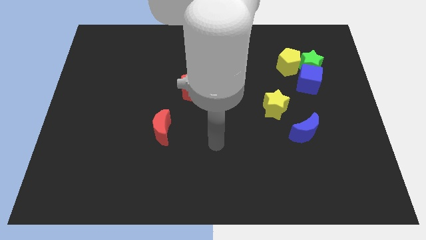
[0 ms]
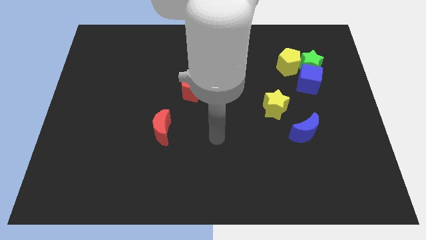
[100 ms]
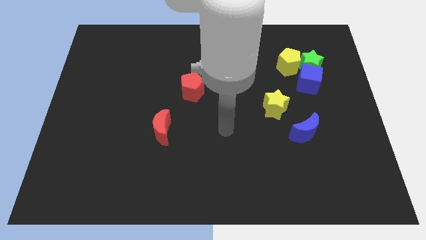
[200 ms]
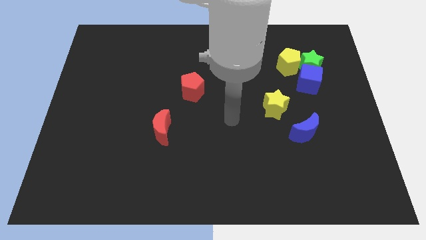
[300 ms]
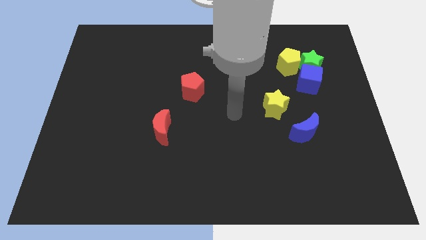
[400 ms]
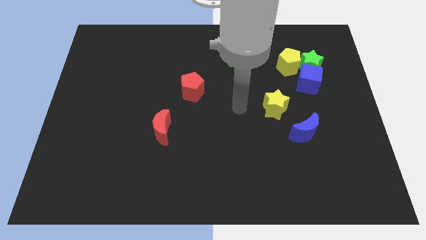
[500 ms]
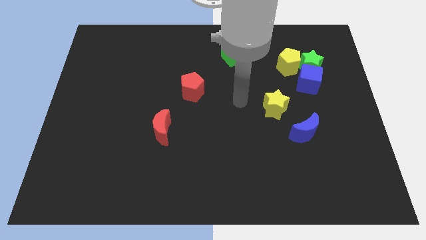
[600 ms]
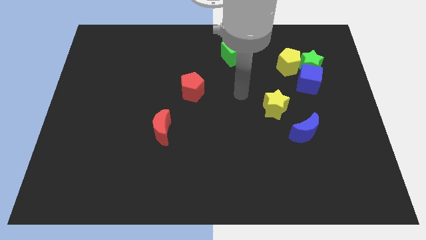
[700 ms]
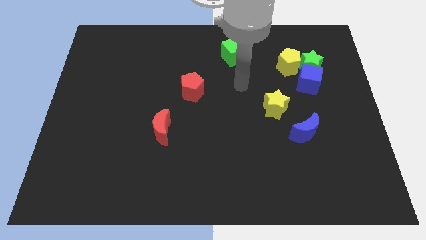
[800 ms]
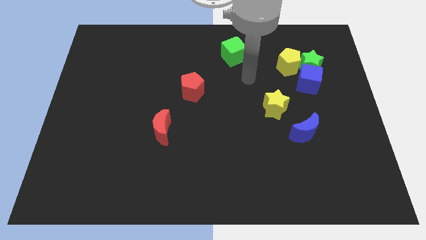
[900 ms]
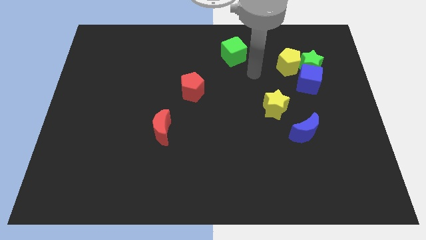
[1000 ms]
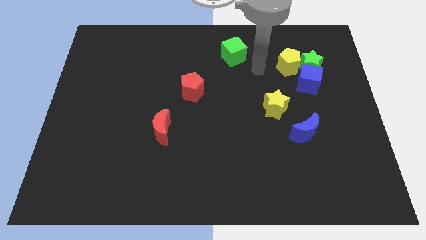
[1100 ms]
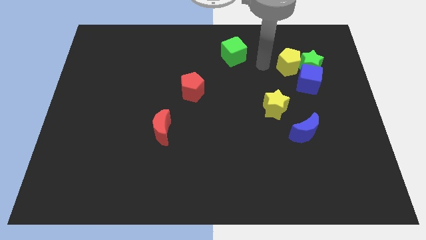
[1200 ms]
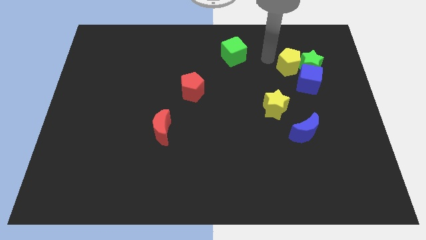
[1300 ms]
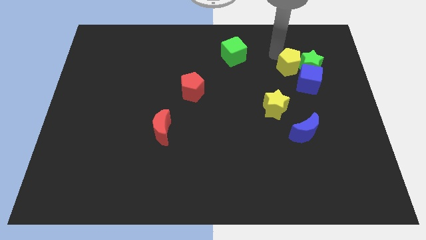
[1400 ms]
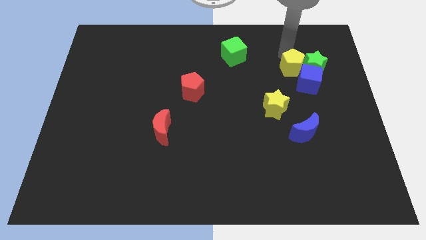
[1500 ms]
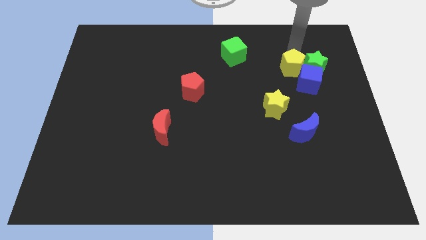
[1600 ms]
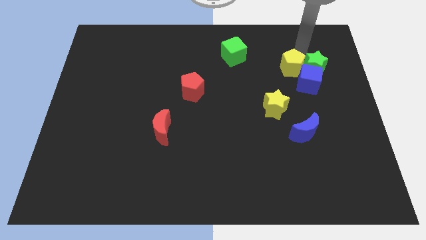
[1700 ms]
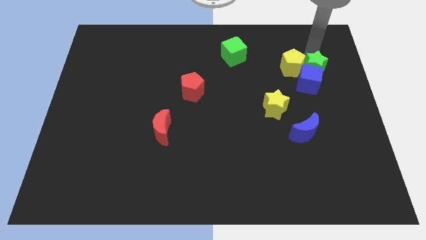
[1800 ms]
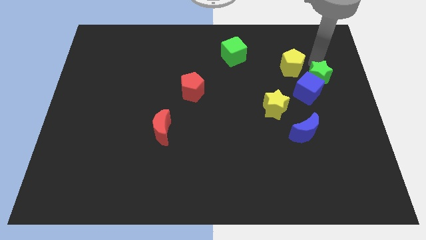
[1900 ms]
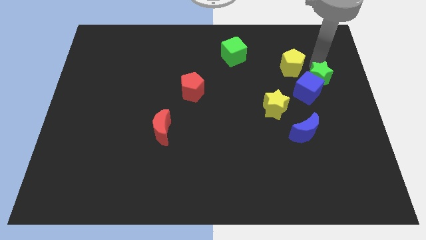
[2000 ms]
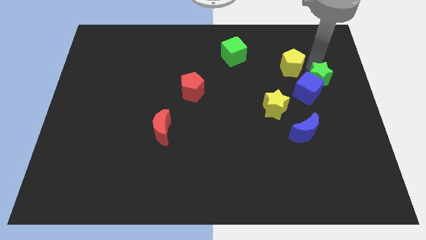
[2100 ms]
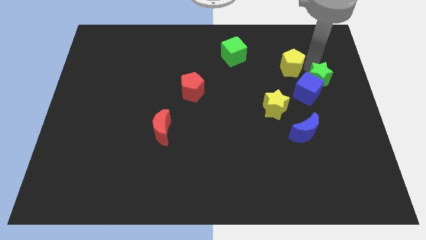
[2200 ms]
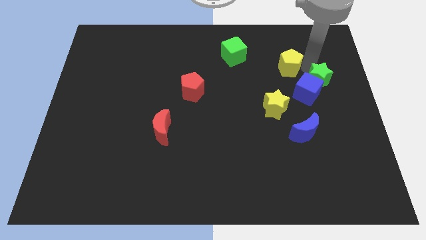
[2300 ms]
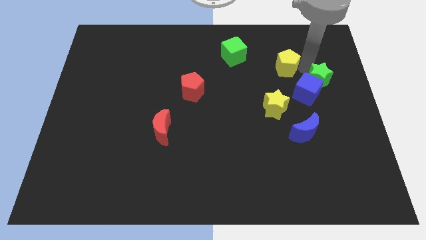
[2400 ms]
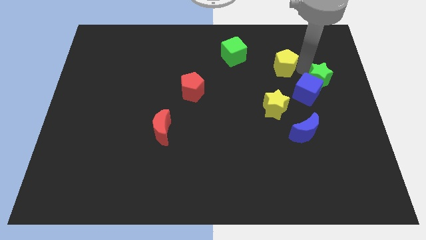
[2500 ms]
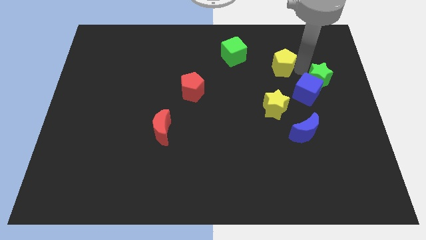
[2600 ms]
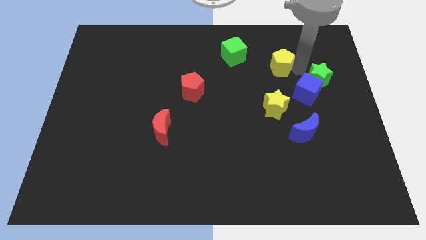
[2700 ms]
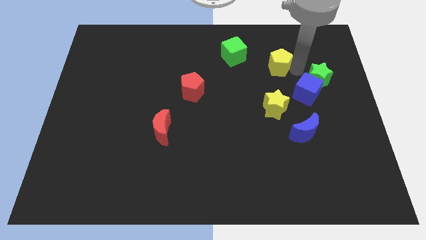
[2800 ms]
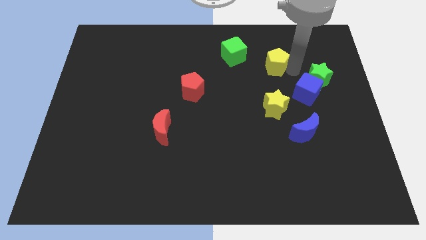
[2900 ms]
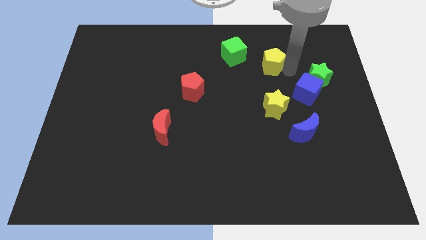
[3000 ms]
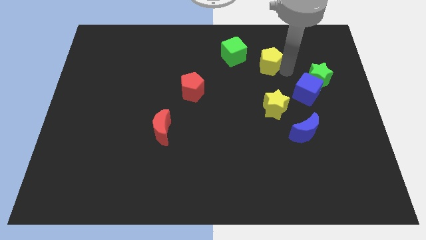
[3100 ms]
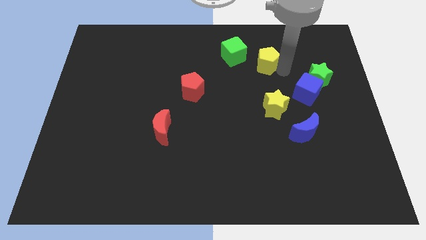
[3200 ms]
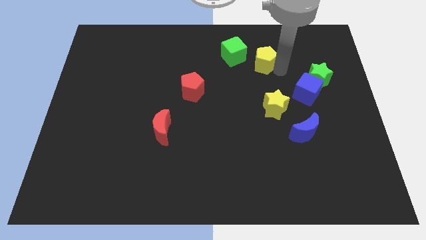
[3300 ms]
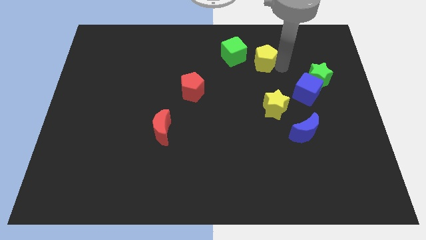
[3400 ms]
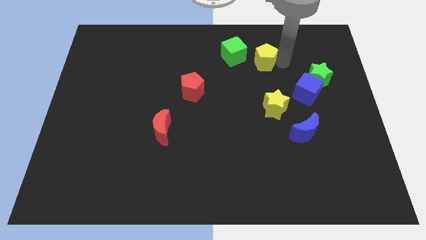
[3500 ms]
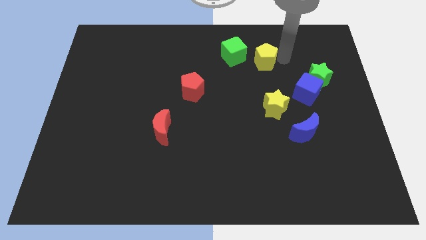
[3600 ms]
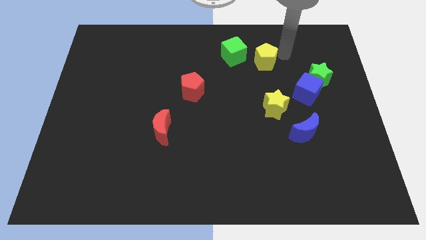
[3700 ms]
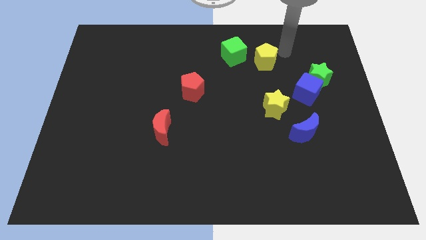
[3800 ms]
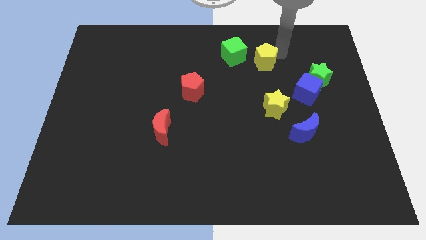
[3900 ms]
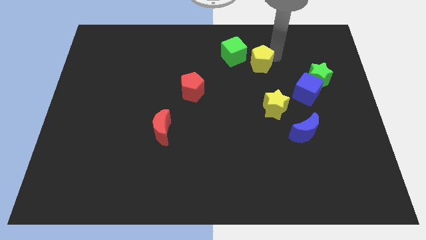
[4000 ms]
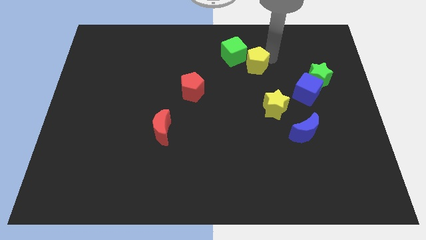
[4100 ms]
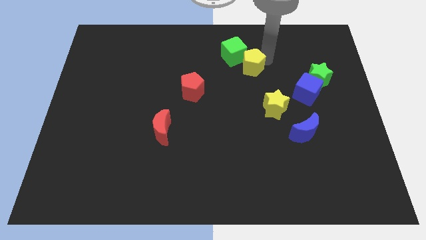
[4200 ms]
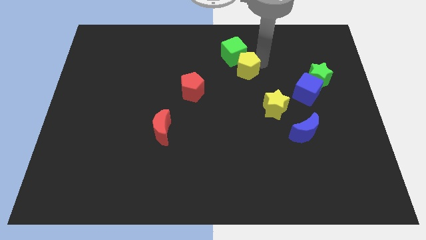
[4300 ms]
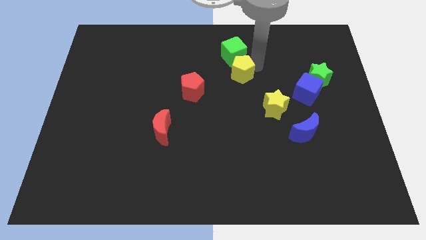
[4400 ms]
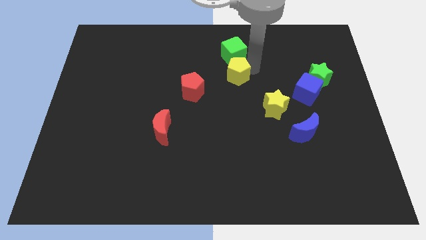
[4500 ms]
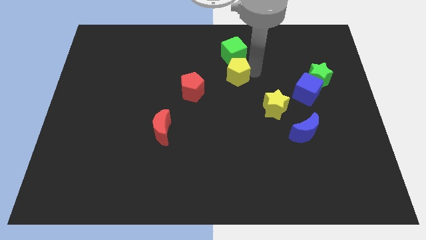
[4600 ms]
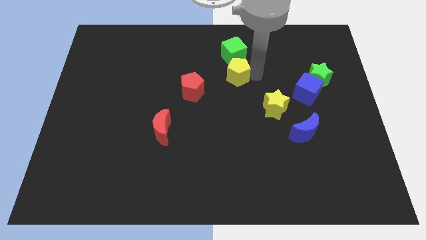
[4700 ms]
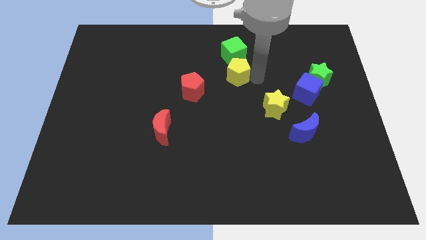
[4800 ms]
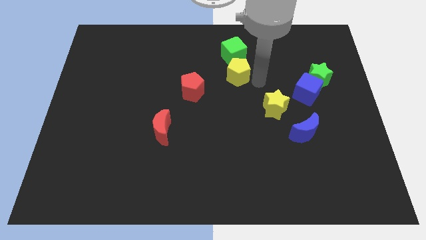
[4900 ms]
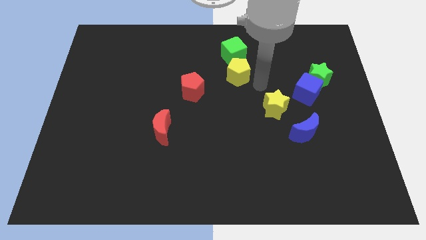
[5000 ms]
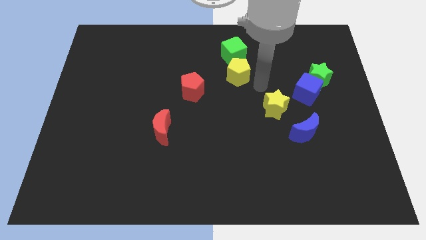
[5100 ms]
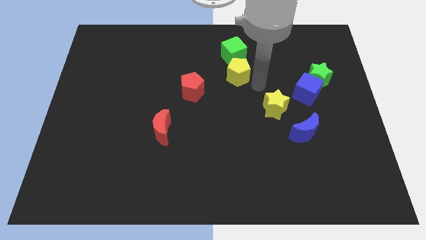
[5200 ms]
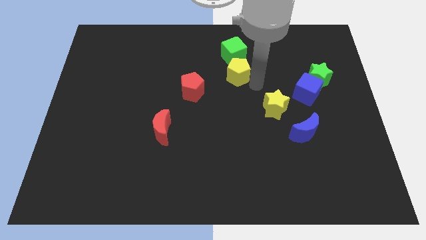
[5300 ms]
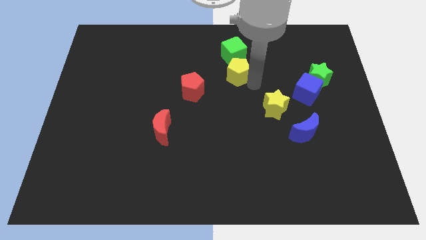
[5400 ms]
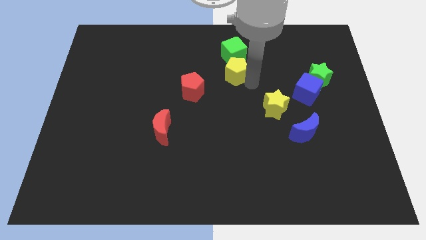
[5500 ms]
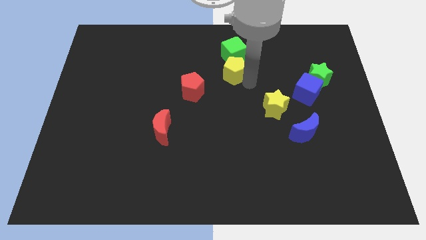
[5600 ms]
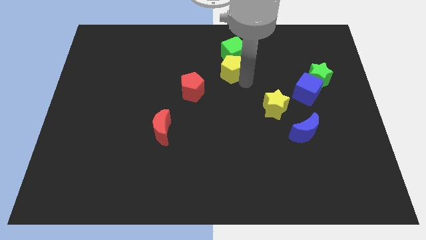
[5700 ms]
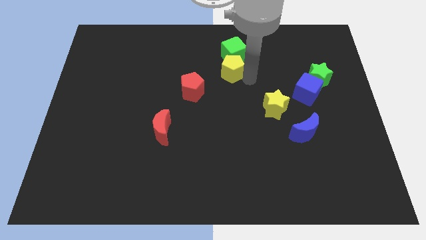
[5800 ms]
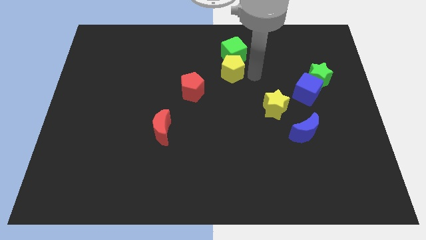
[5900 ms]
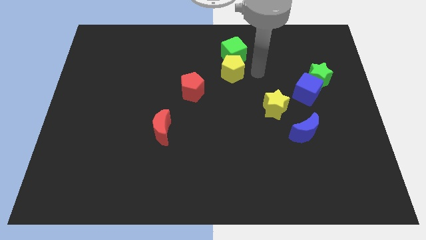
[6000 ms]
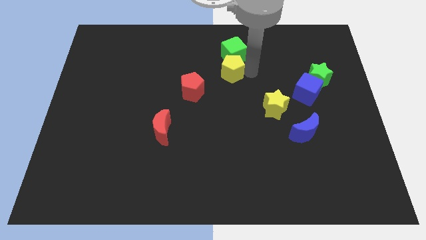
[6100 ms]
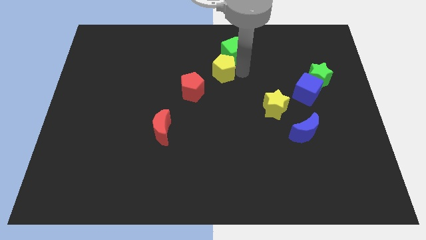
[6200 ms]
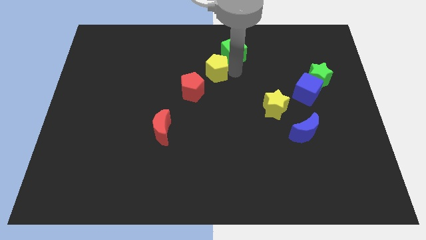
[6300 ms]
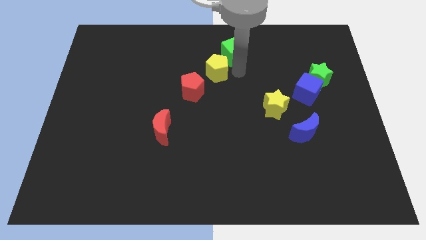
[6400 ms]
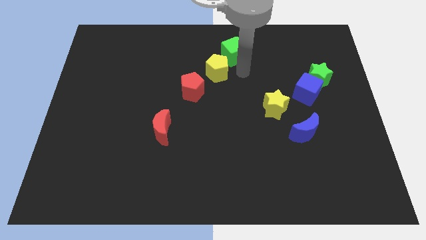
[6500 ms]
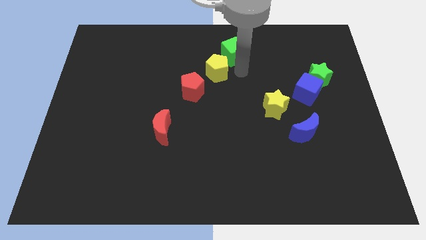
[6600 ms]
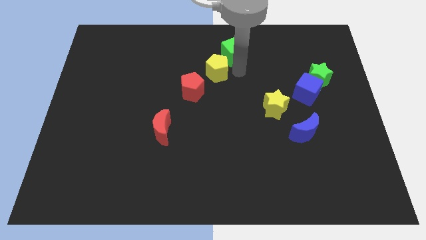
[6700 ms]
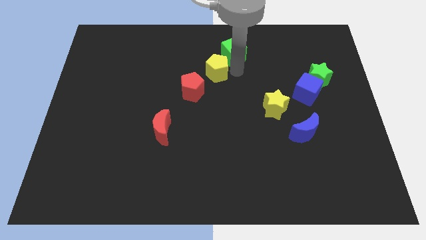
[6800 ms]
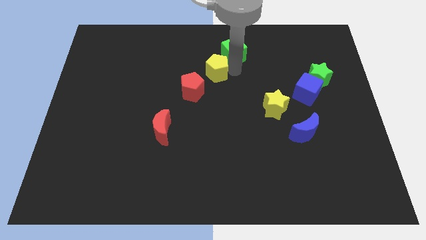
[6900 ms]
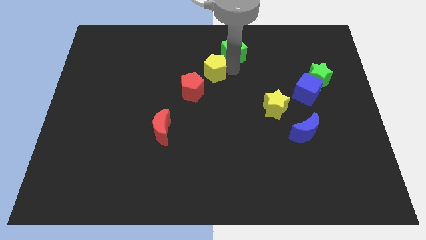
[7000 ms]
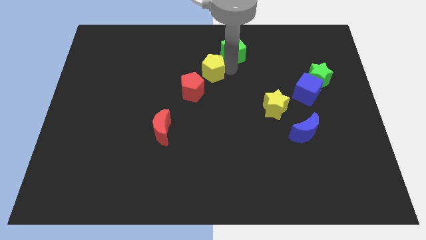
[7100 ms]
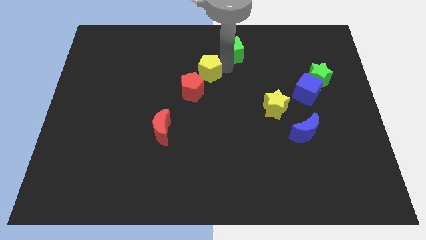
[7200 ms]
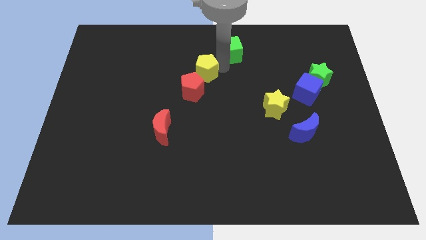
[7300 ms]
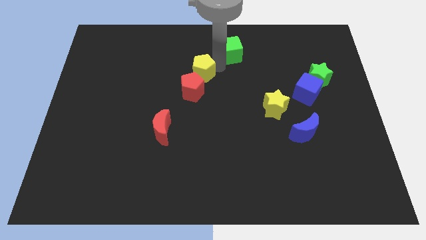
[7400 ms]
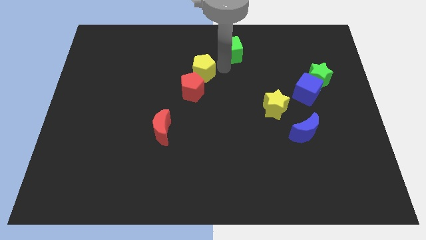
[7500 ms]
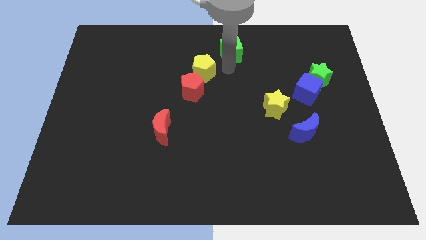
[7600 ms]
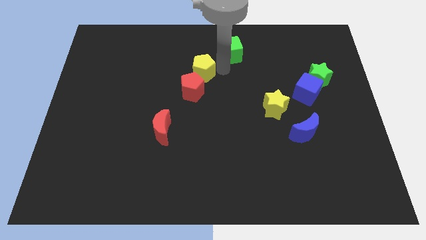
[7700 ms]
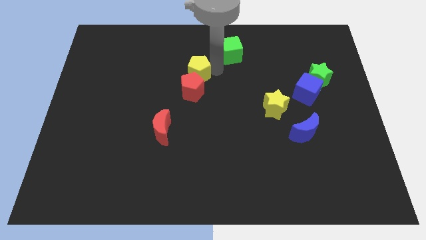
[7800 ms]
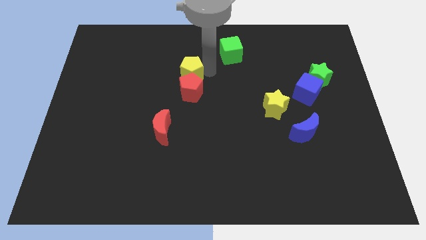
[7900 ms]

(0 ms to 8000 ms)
slide the yellow pentagon diagonally up and to the left of the red pentagon
